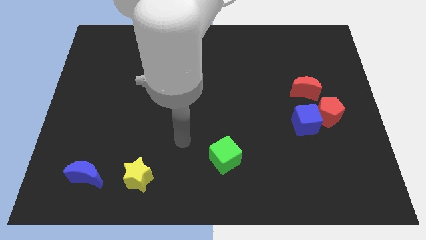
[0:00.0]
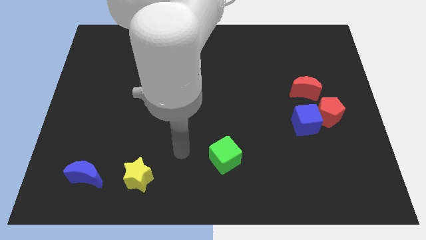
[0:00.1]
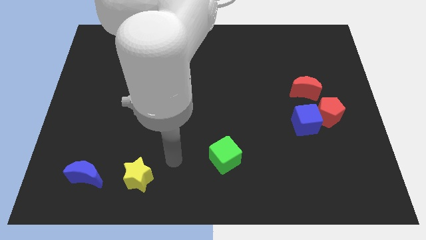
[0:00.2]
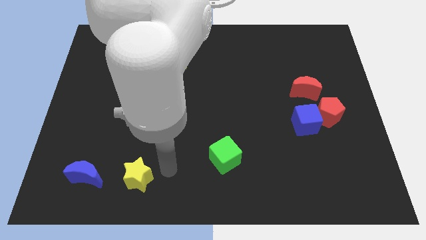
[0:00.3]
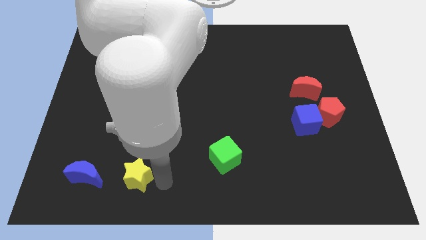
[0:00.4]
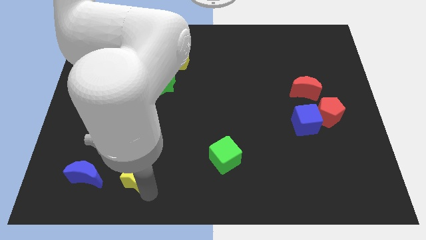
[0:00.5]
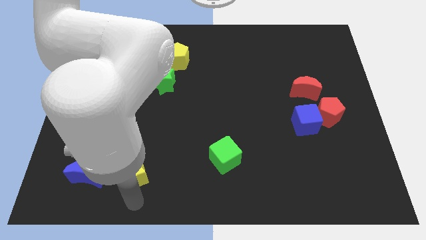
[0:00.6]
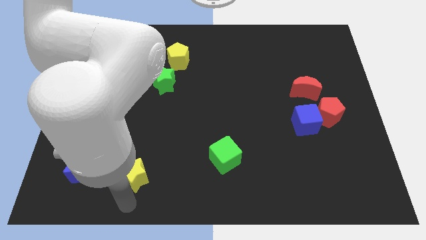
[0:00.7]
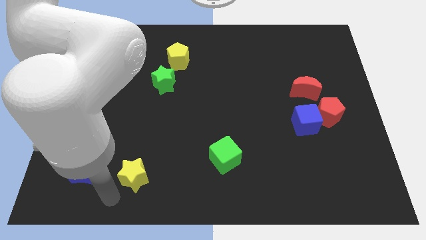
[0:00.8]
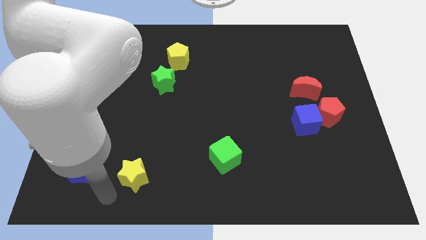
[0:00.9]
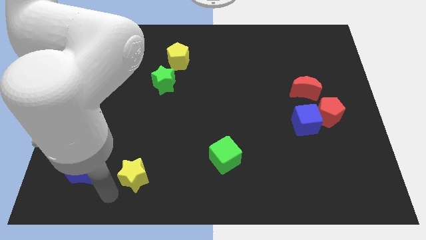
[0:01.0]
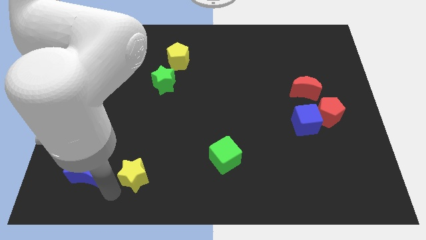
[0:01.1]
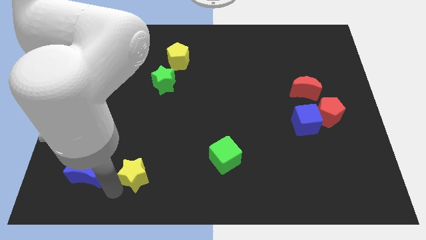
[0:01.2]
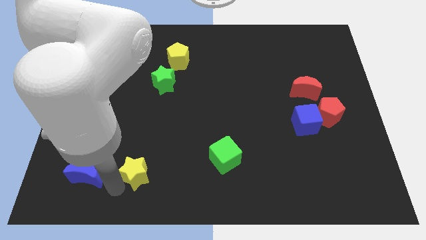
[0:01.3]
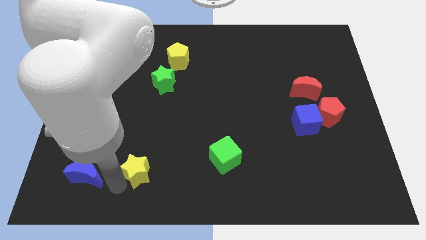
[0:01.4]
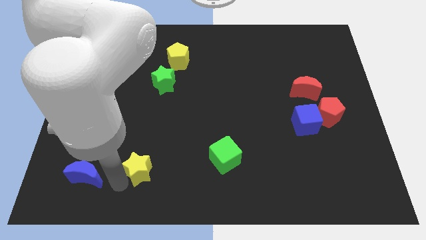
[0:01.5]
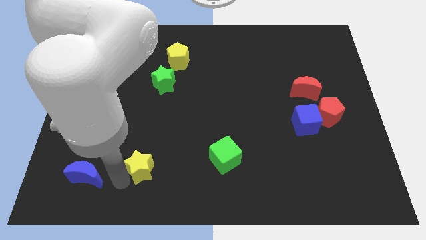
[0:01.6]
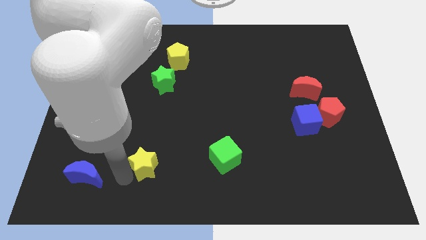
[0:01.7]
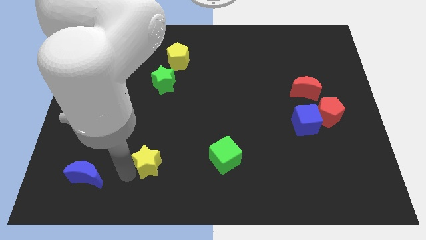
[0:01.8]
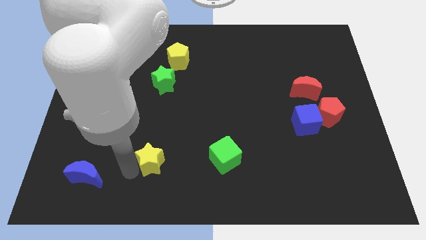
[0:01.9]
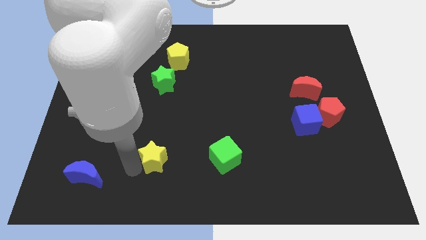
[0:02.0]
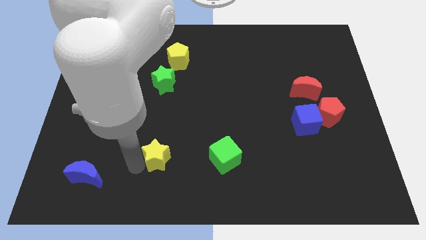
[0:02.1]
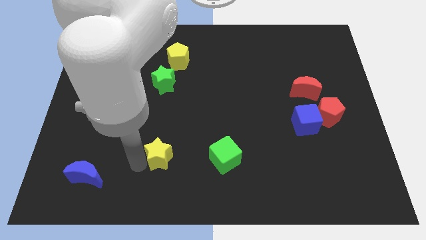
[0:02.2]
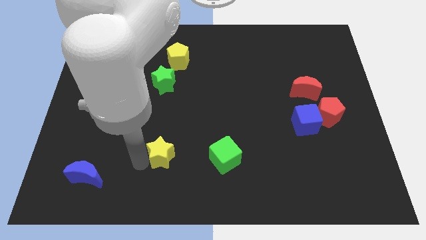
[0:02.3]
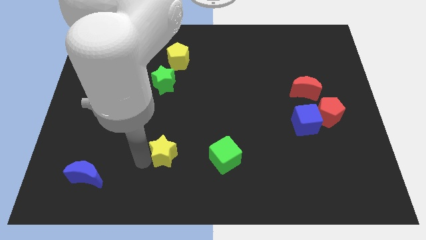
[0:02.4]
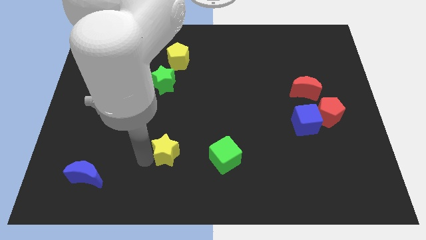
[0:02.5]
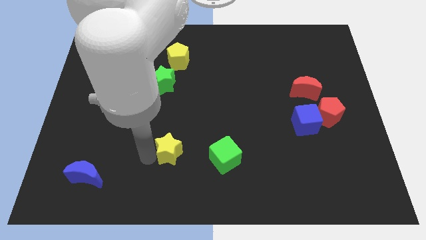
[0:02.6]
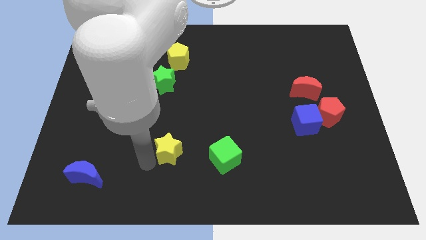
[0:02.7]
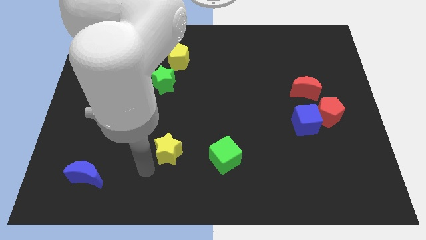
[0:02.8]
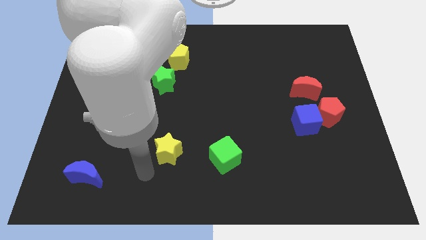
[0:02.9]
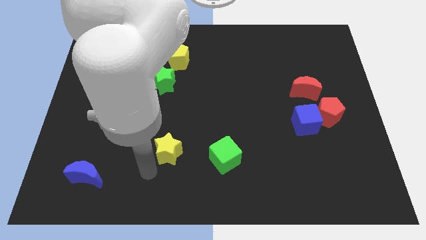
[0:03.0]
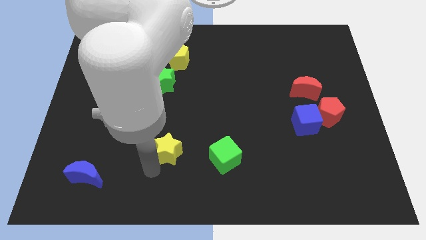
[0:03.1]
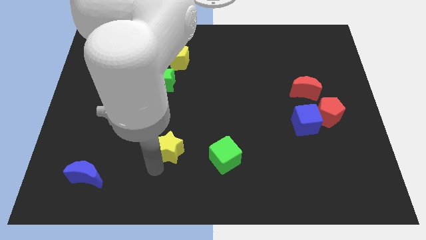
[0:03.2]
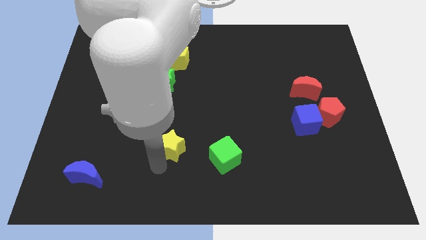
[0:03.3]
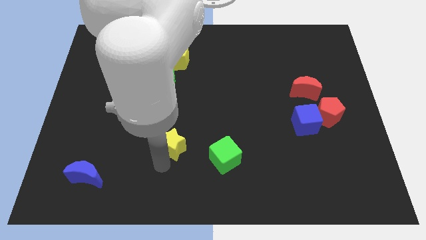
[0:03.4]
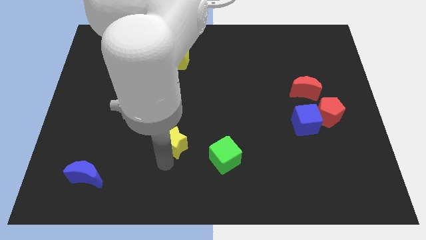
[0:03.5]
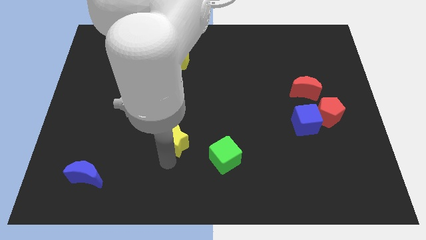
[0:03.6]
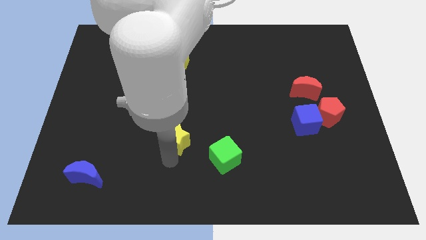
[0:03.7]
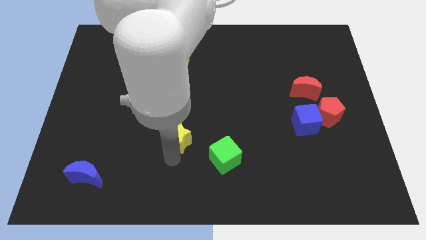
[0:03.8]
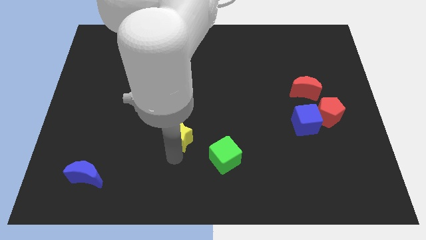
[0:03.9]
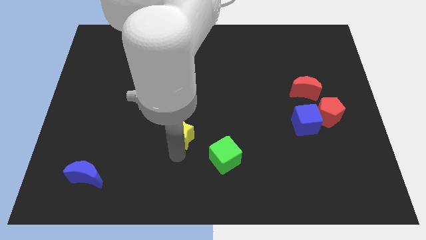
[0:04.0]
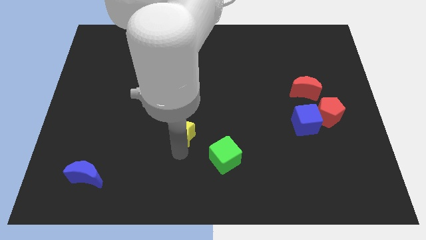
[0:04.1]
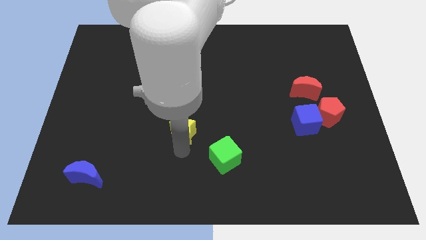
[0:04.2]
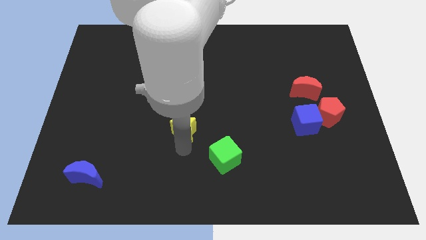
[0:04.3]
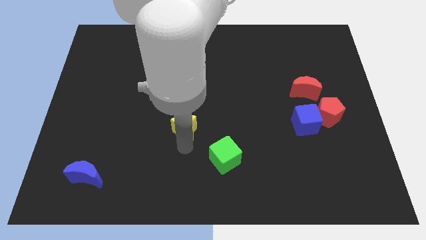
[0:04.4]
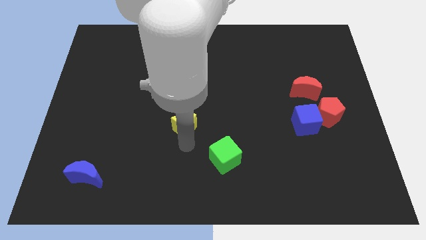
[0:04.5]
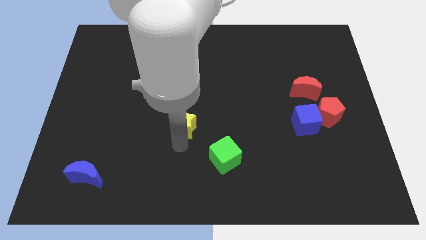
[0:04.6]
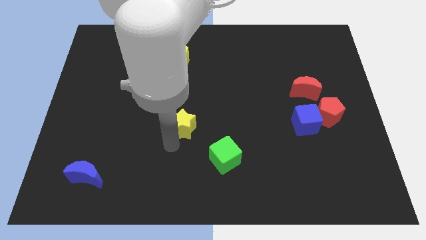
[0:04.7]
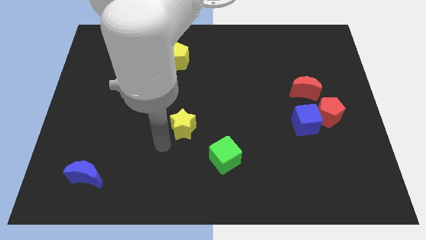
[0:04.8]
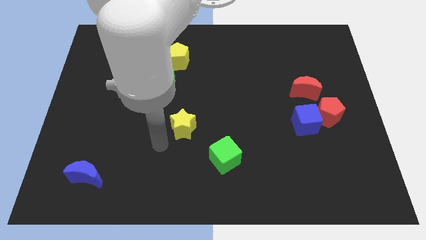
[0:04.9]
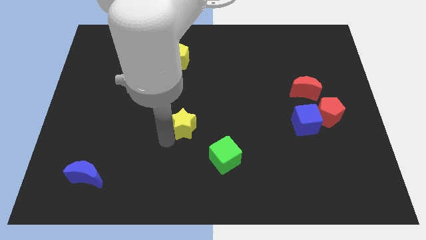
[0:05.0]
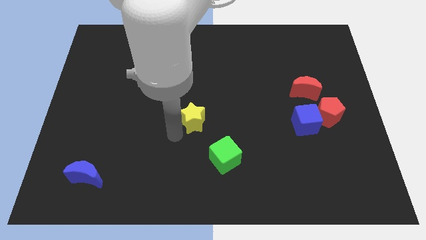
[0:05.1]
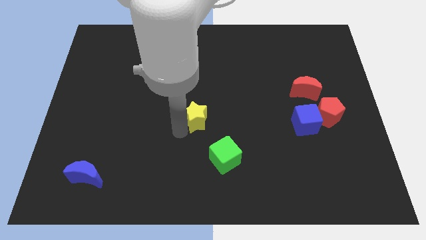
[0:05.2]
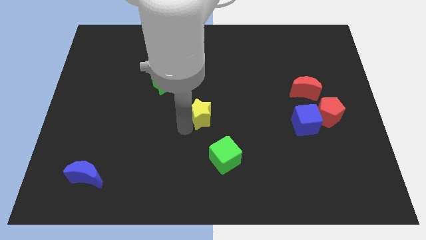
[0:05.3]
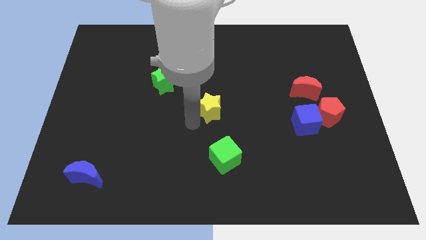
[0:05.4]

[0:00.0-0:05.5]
push the yellow star up and right diagonally

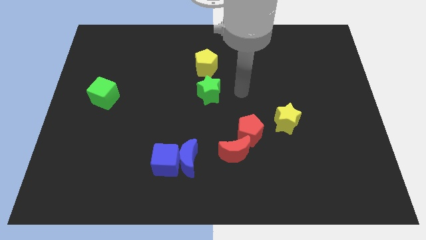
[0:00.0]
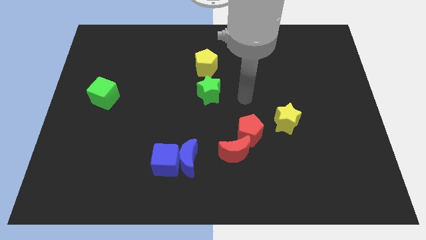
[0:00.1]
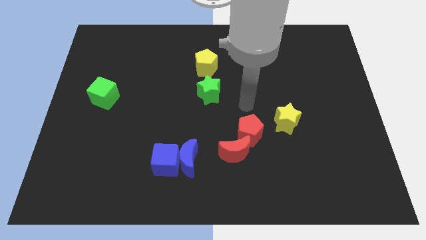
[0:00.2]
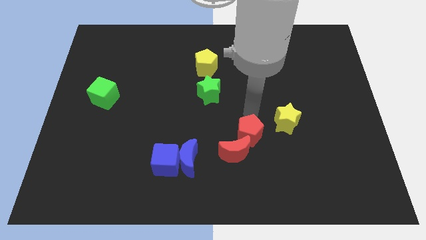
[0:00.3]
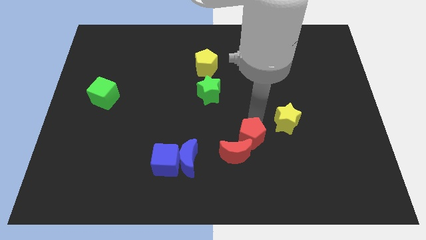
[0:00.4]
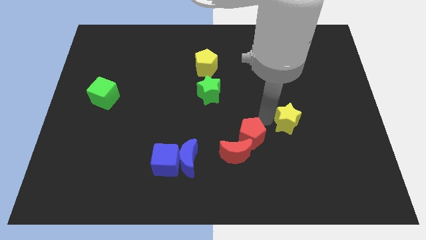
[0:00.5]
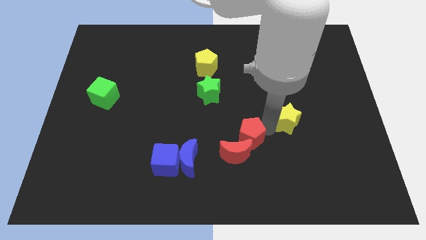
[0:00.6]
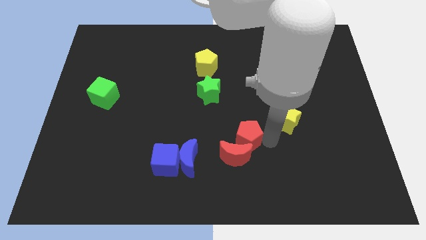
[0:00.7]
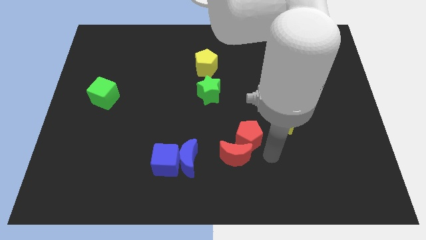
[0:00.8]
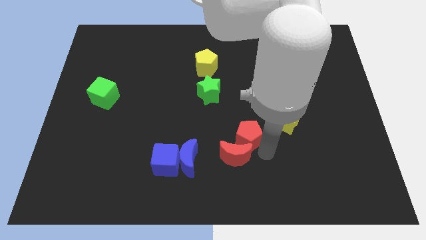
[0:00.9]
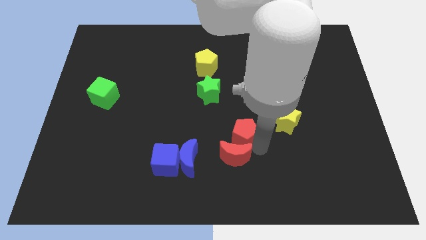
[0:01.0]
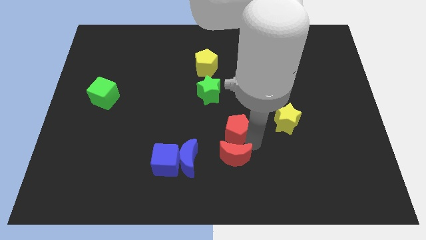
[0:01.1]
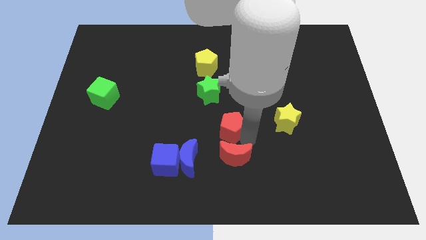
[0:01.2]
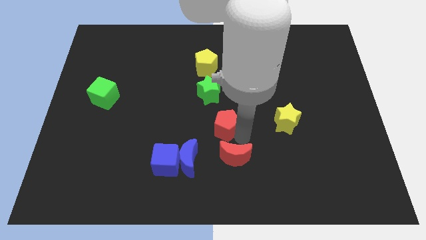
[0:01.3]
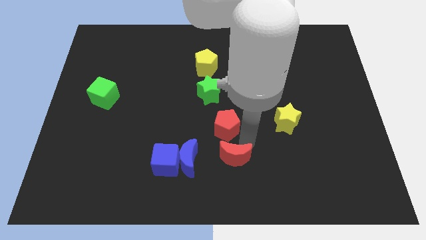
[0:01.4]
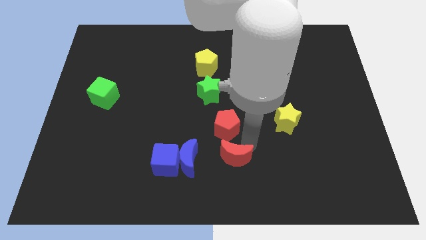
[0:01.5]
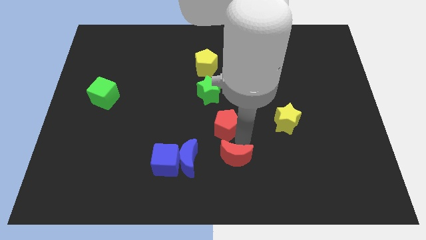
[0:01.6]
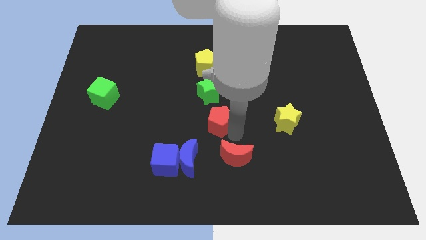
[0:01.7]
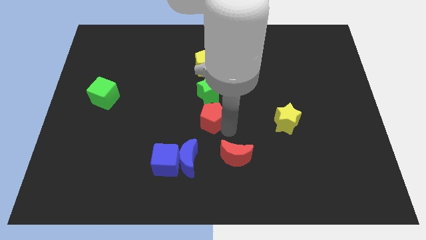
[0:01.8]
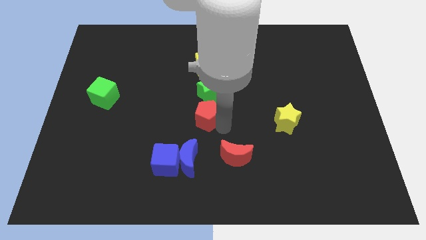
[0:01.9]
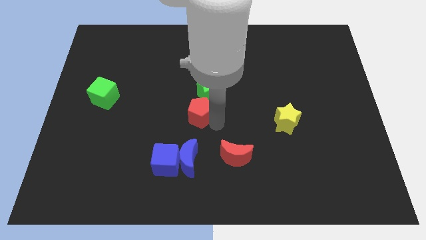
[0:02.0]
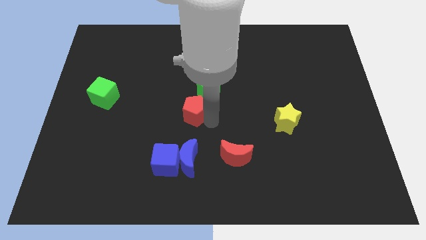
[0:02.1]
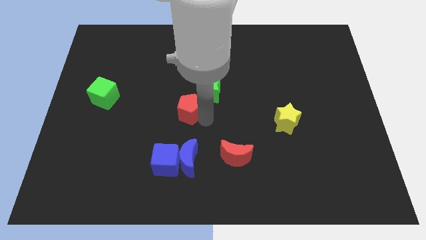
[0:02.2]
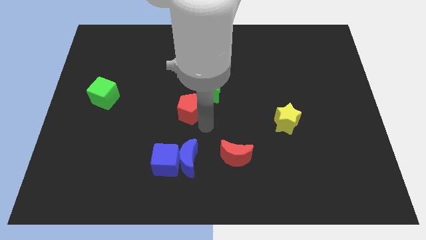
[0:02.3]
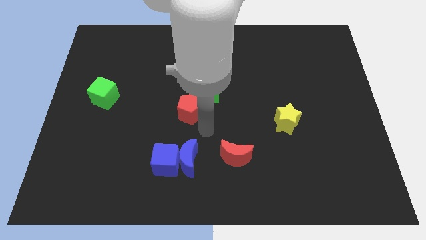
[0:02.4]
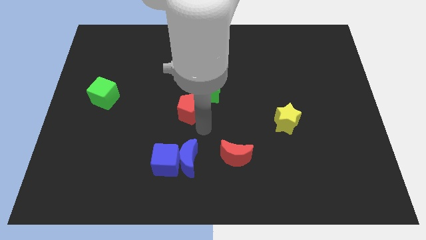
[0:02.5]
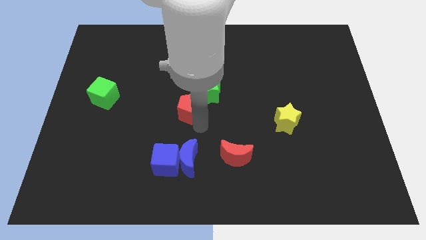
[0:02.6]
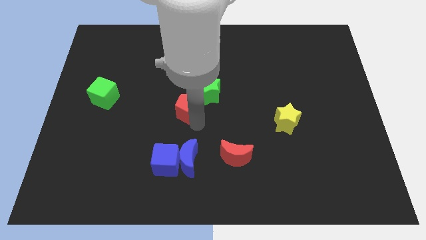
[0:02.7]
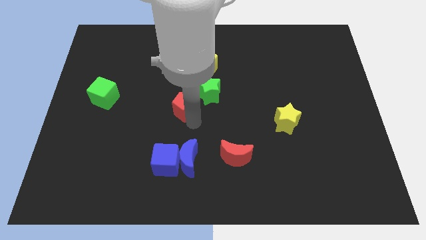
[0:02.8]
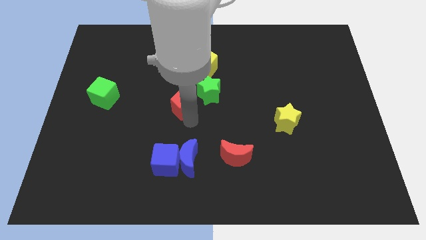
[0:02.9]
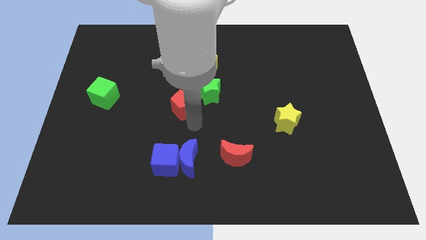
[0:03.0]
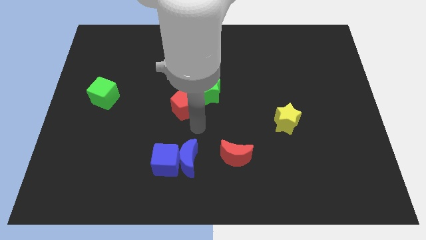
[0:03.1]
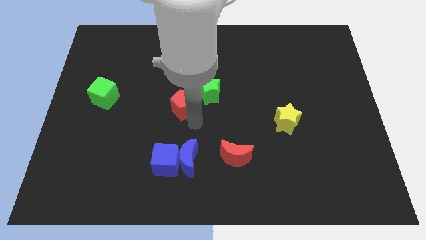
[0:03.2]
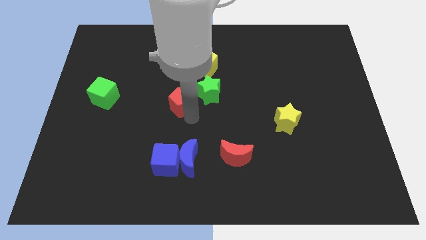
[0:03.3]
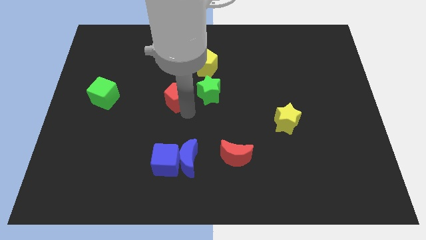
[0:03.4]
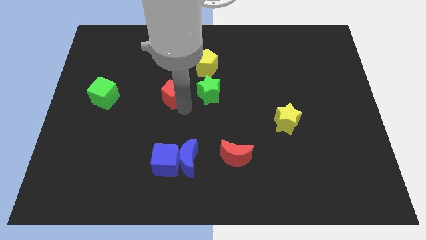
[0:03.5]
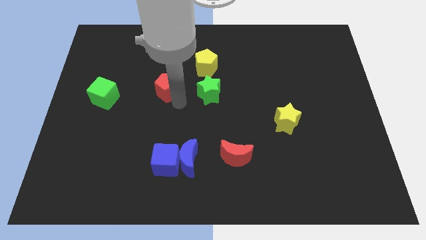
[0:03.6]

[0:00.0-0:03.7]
move the red pentagon upwards and to the left
